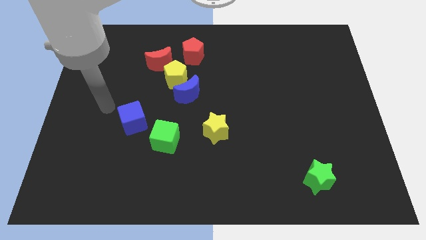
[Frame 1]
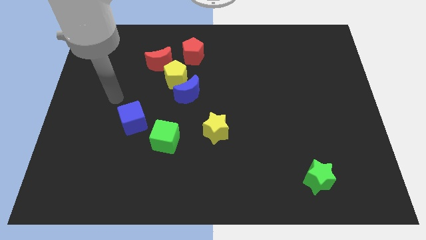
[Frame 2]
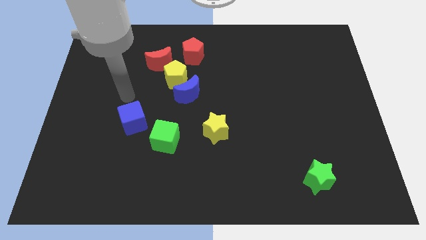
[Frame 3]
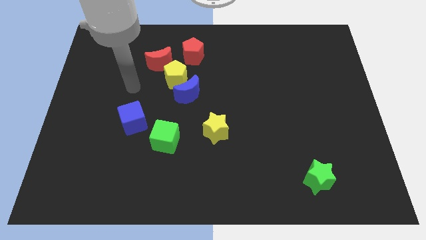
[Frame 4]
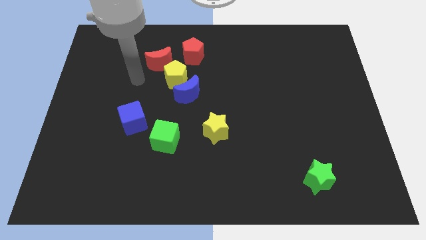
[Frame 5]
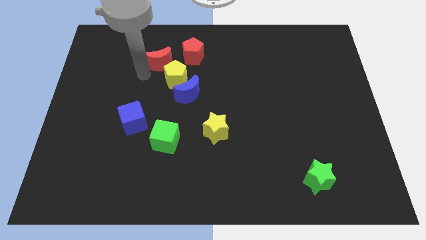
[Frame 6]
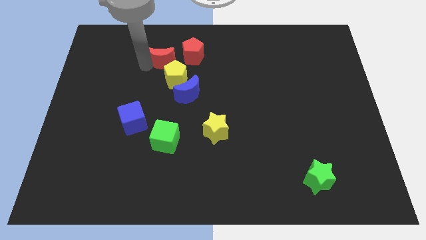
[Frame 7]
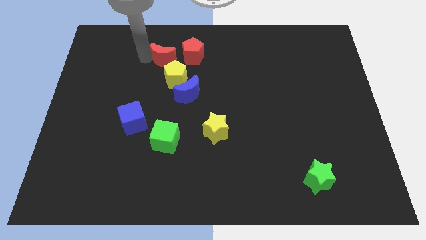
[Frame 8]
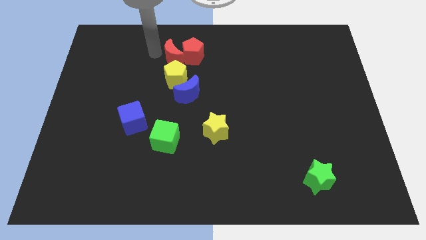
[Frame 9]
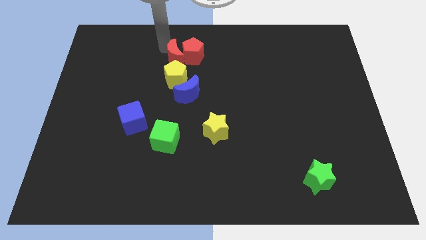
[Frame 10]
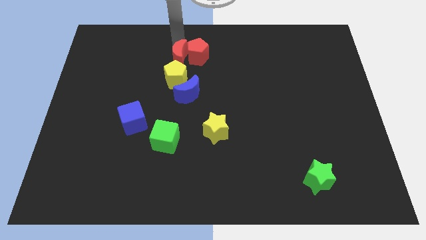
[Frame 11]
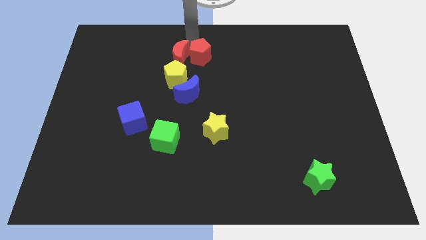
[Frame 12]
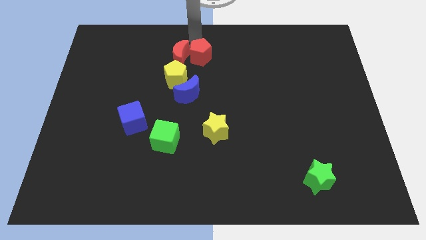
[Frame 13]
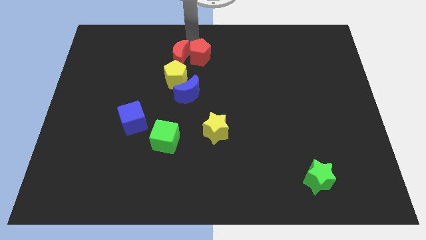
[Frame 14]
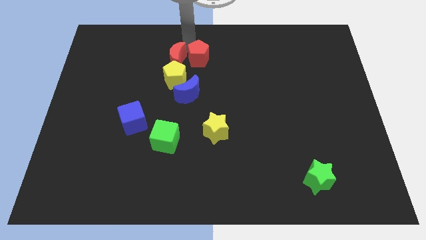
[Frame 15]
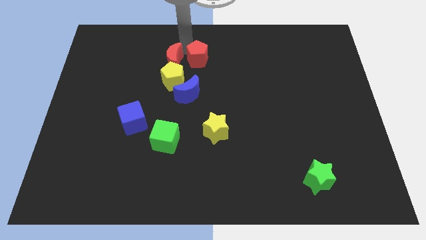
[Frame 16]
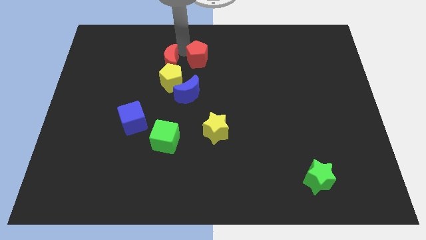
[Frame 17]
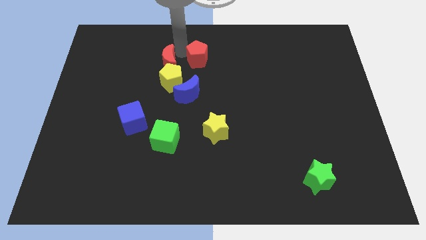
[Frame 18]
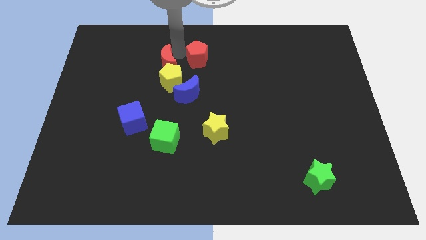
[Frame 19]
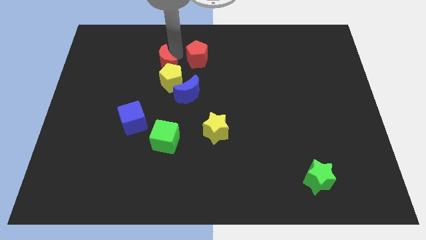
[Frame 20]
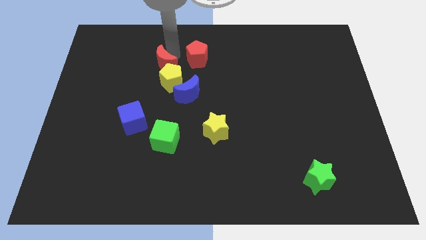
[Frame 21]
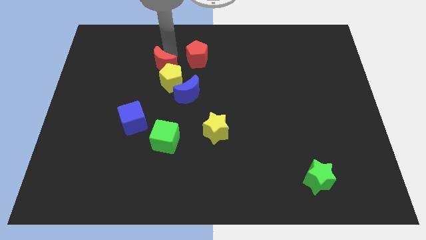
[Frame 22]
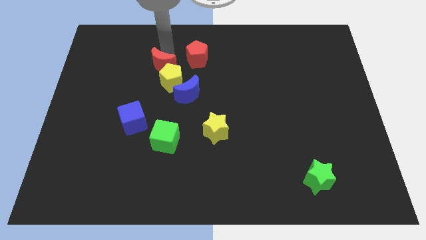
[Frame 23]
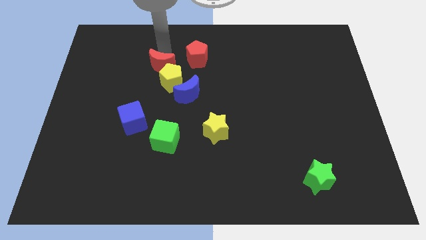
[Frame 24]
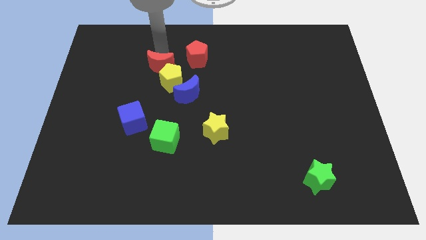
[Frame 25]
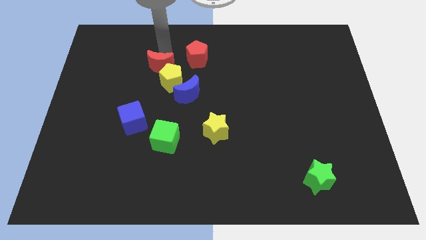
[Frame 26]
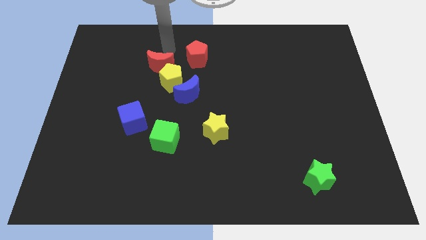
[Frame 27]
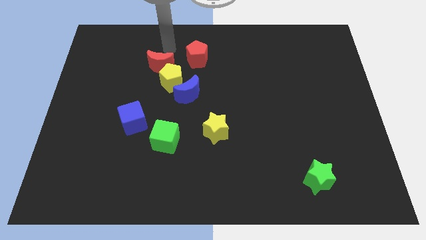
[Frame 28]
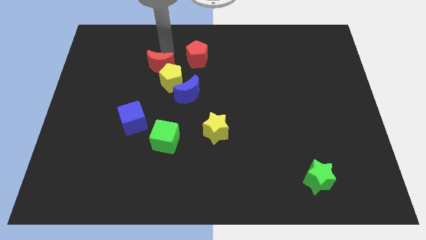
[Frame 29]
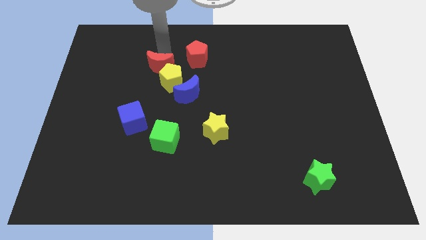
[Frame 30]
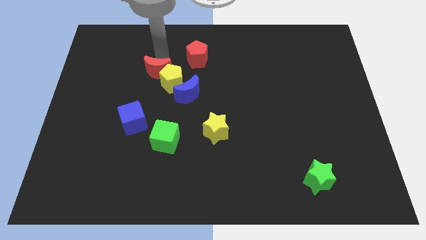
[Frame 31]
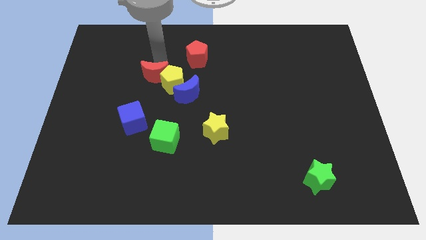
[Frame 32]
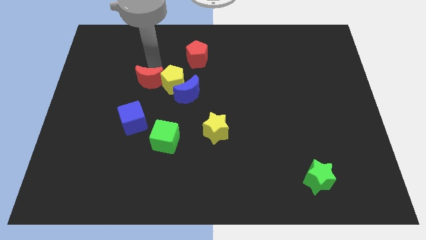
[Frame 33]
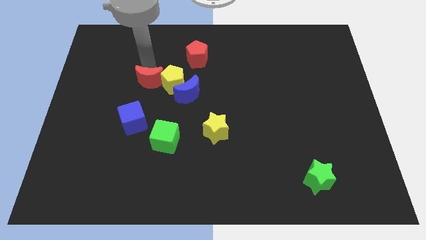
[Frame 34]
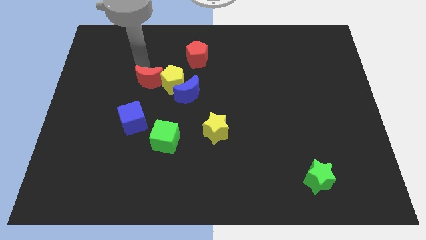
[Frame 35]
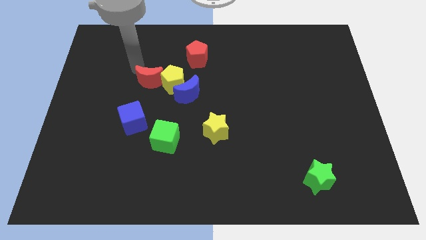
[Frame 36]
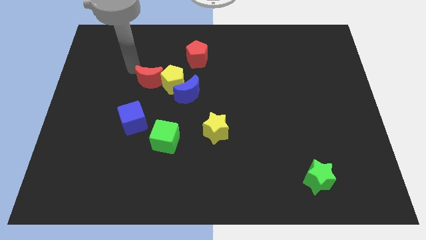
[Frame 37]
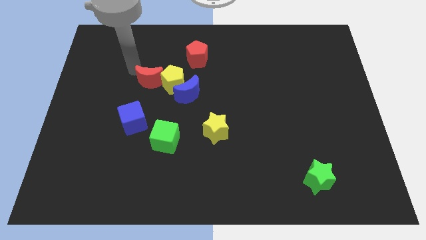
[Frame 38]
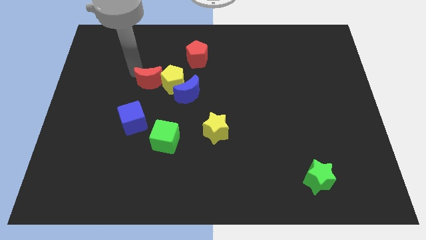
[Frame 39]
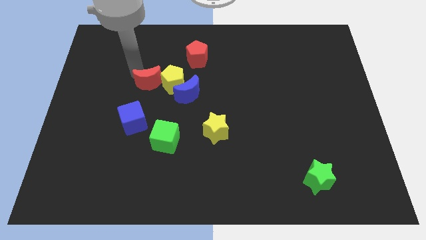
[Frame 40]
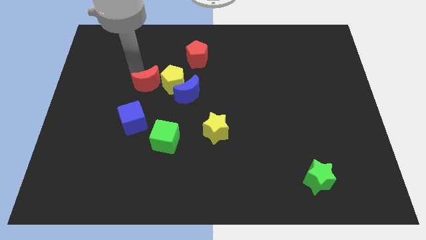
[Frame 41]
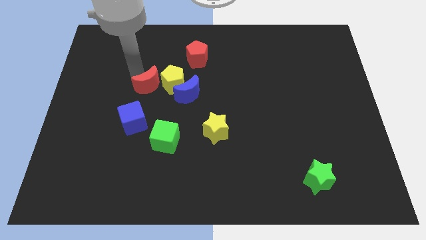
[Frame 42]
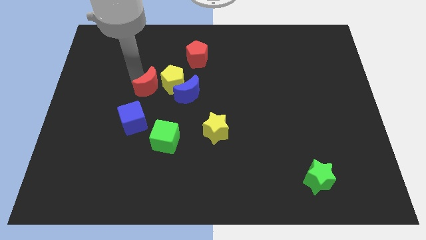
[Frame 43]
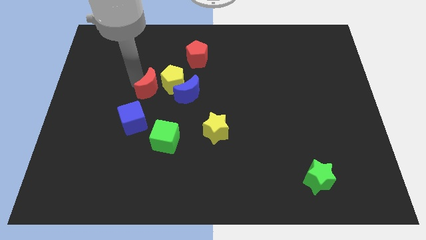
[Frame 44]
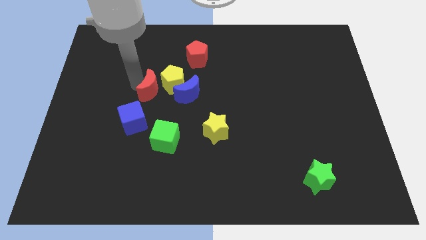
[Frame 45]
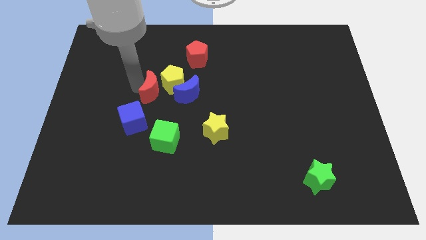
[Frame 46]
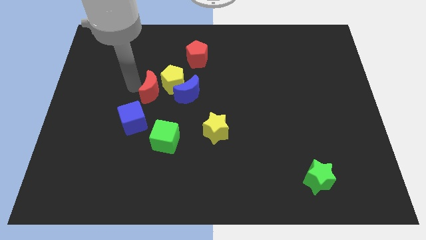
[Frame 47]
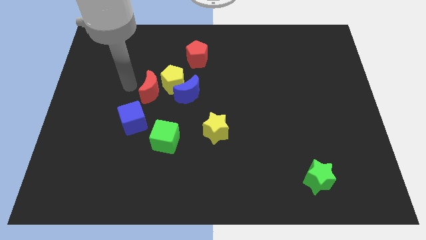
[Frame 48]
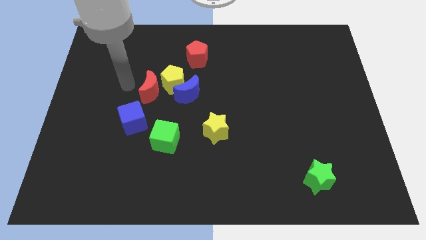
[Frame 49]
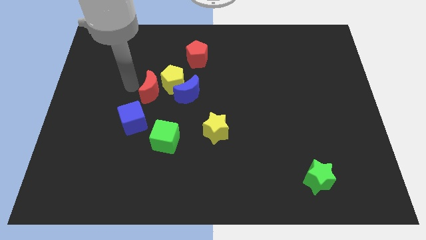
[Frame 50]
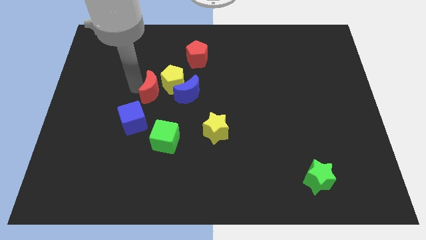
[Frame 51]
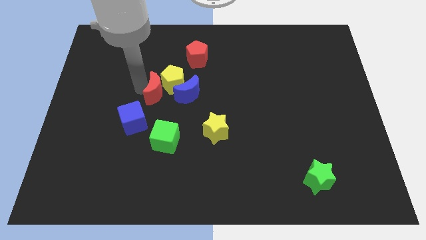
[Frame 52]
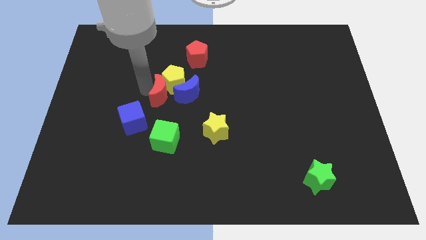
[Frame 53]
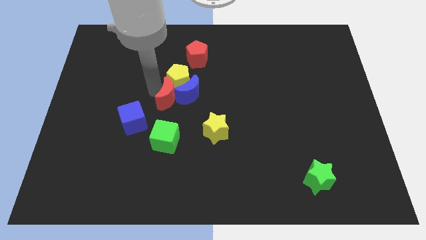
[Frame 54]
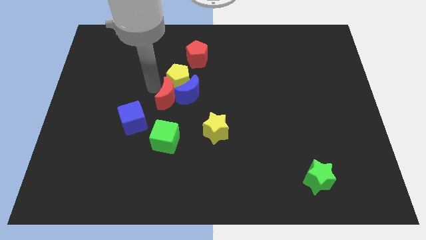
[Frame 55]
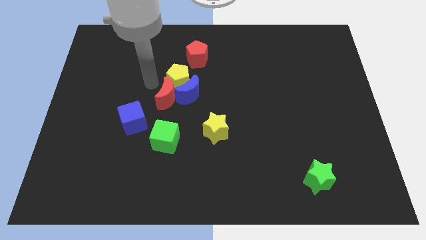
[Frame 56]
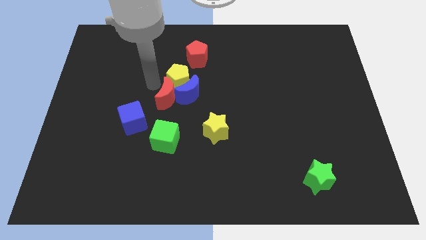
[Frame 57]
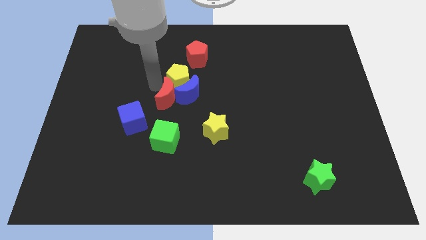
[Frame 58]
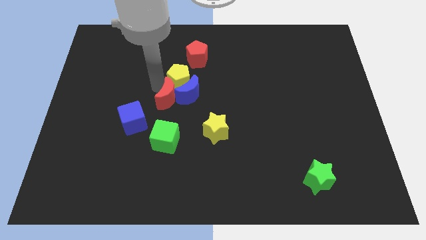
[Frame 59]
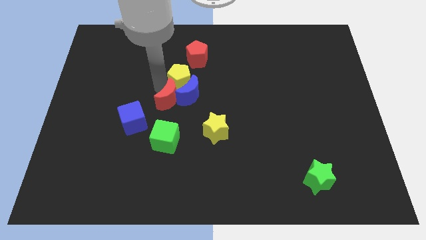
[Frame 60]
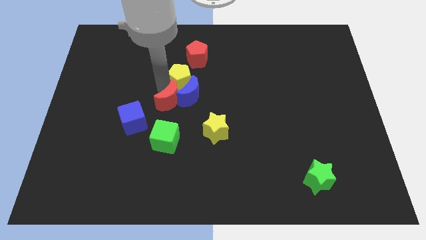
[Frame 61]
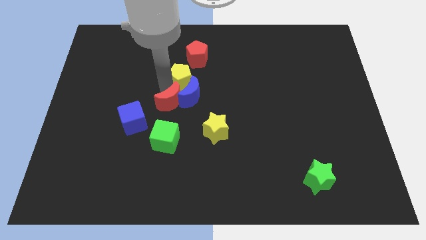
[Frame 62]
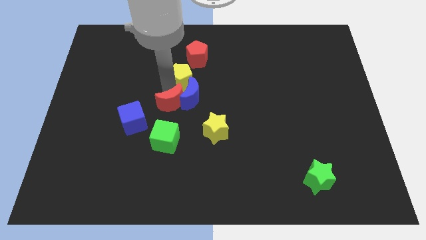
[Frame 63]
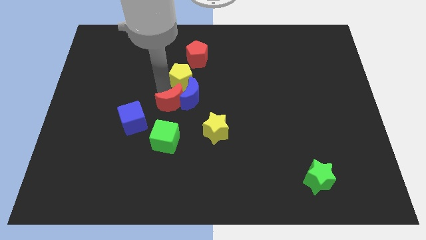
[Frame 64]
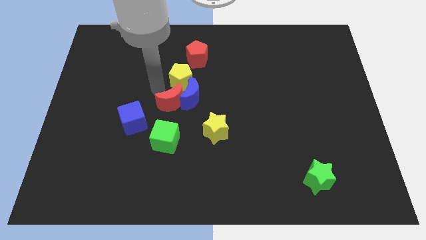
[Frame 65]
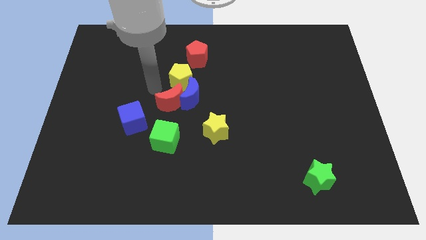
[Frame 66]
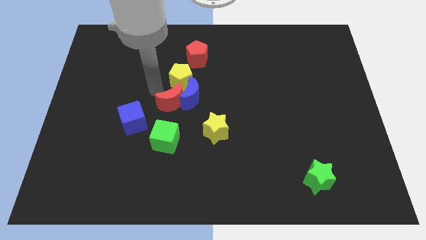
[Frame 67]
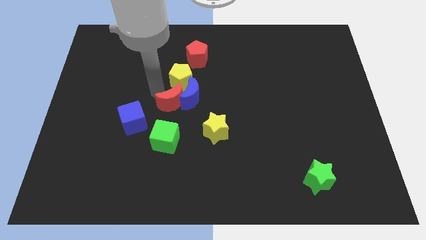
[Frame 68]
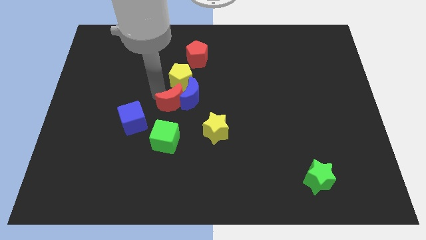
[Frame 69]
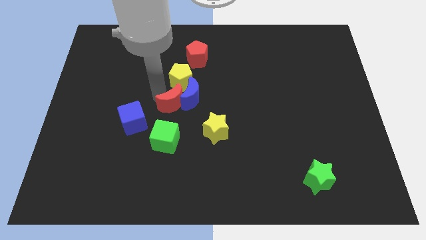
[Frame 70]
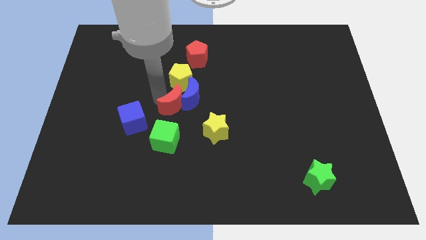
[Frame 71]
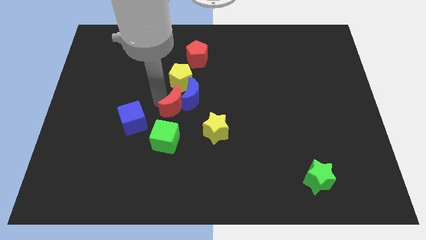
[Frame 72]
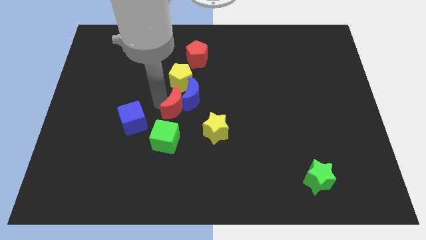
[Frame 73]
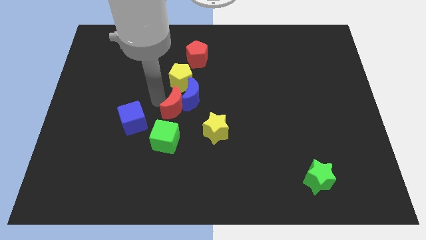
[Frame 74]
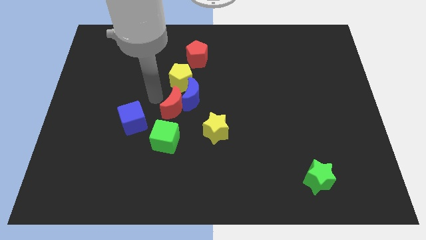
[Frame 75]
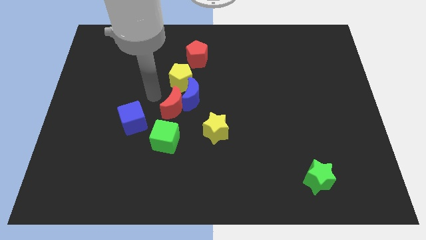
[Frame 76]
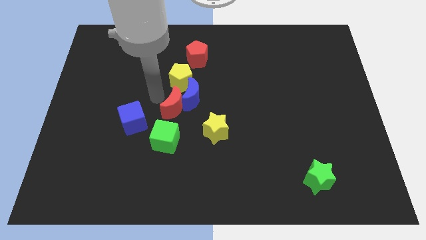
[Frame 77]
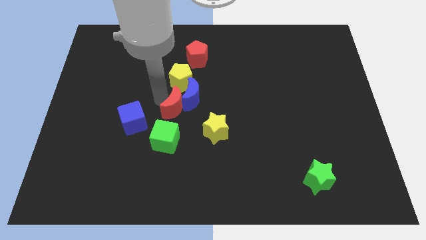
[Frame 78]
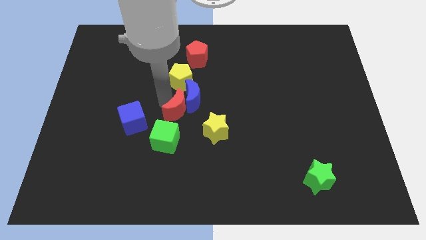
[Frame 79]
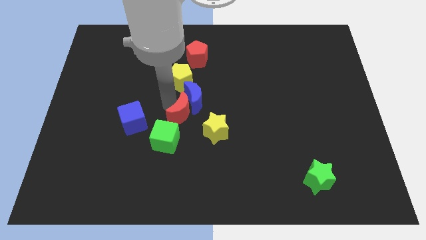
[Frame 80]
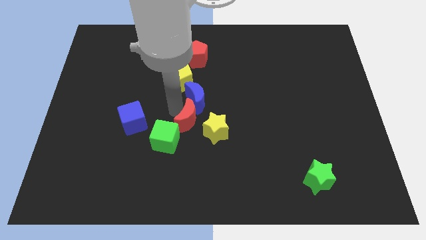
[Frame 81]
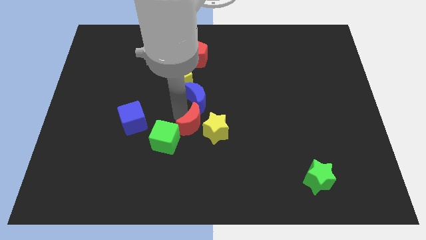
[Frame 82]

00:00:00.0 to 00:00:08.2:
push the red moon close to the yellow star
